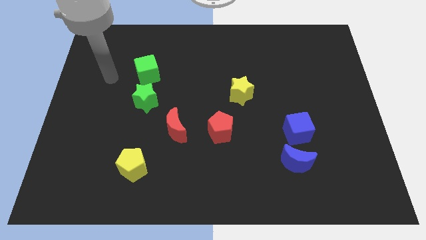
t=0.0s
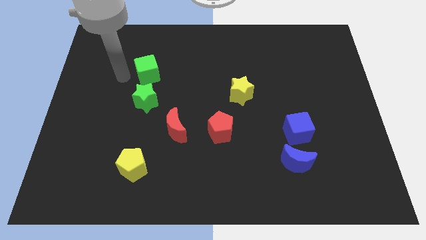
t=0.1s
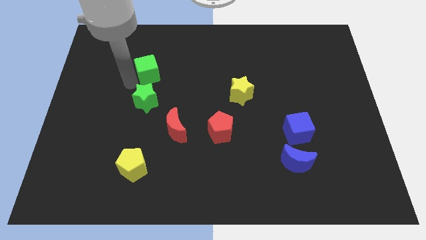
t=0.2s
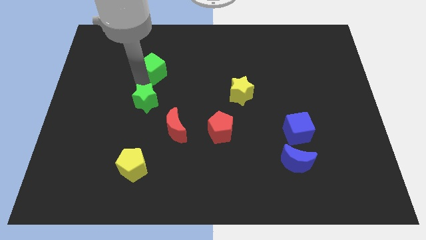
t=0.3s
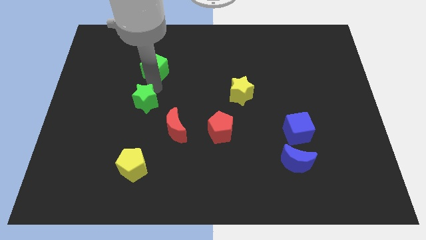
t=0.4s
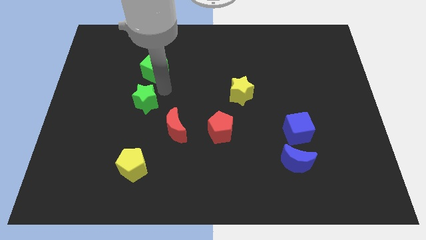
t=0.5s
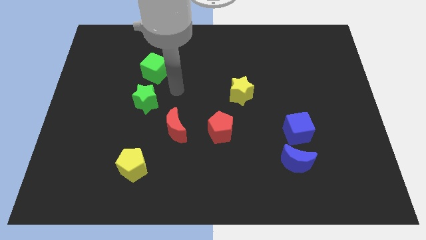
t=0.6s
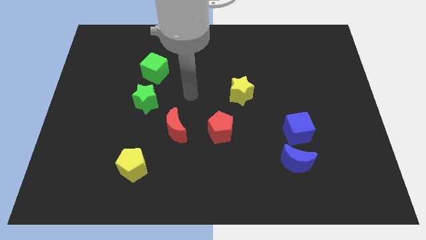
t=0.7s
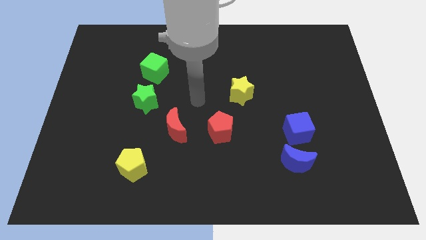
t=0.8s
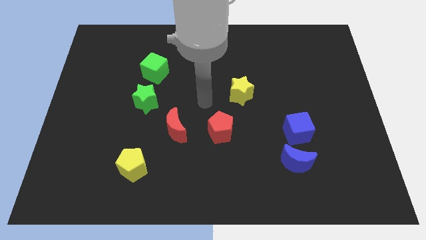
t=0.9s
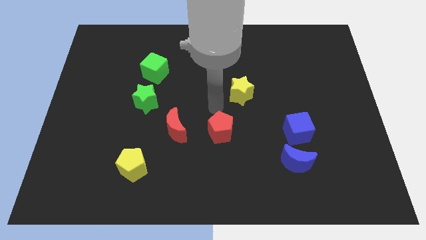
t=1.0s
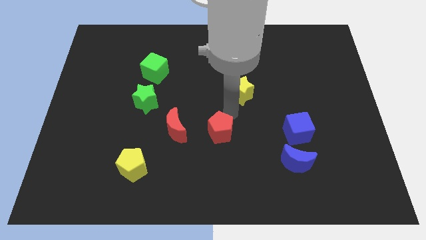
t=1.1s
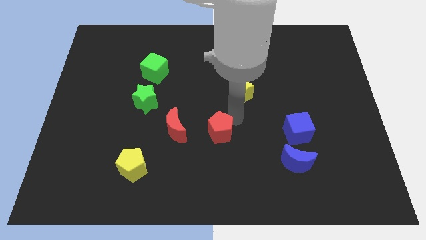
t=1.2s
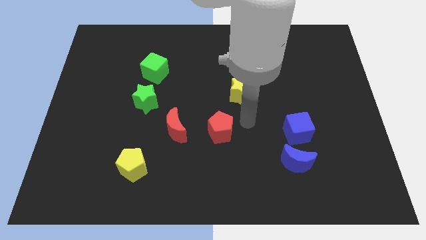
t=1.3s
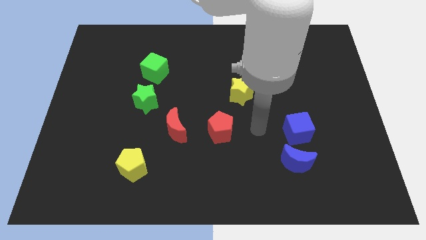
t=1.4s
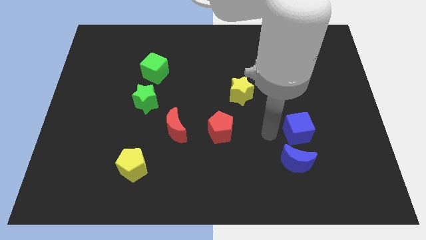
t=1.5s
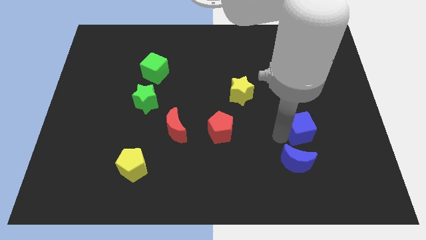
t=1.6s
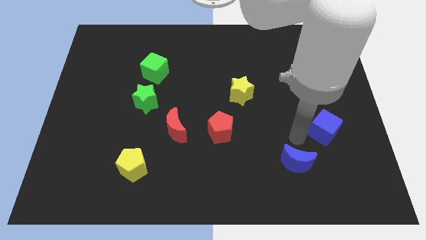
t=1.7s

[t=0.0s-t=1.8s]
move the blue moon away from the blue cube

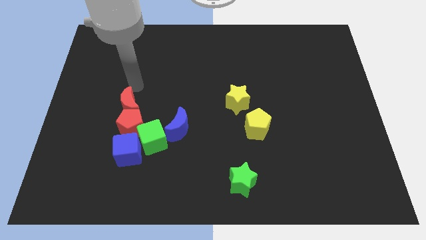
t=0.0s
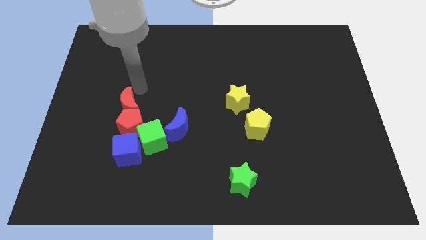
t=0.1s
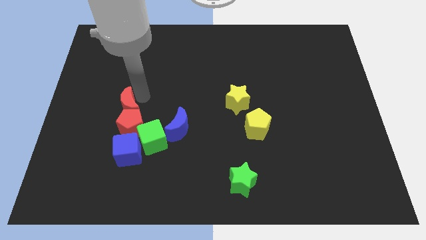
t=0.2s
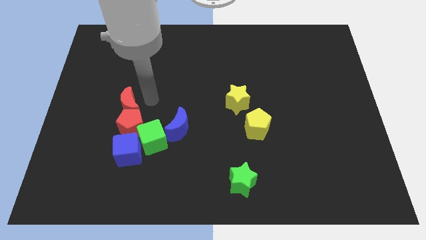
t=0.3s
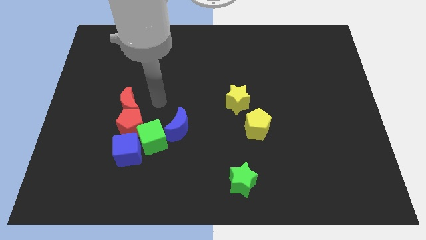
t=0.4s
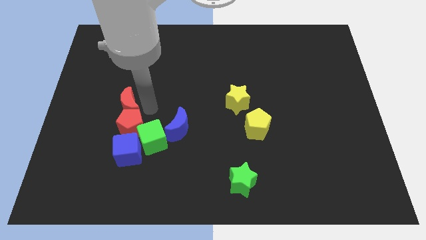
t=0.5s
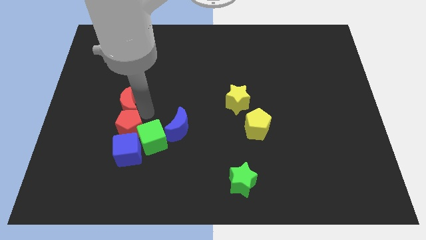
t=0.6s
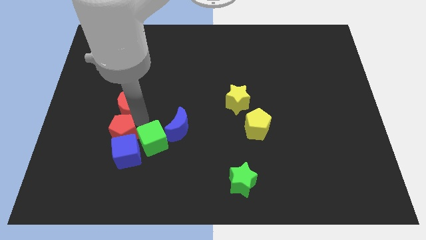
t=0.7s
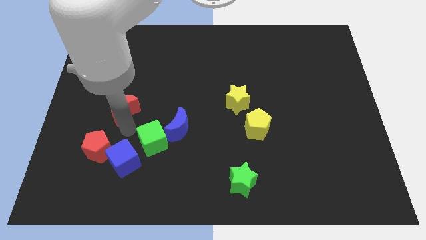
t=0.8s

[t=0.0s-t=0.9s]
move the red moon away from the red pentagon

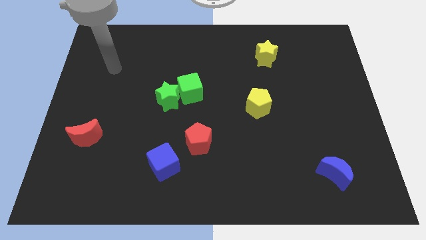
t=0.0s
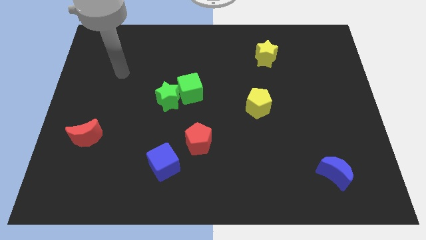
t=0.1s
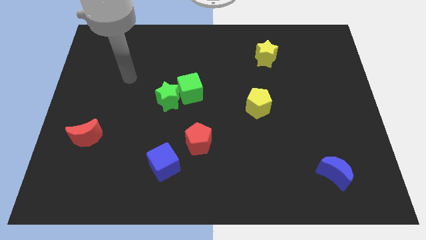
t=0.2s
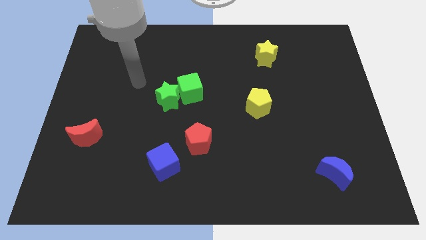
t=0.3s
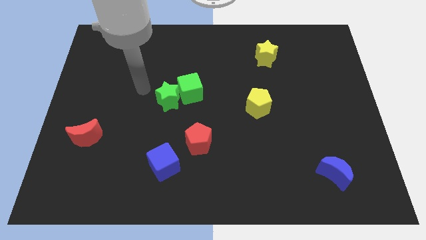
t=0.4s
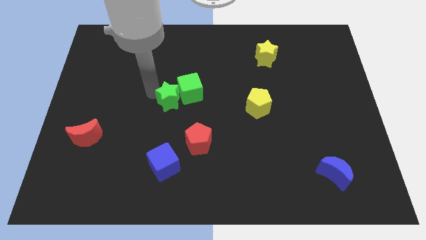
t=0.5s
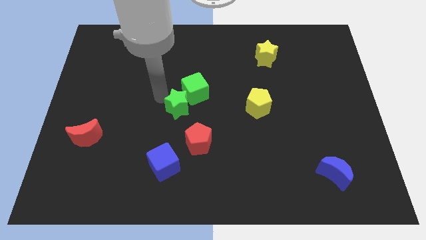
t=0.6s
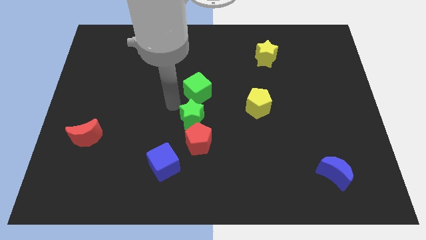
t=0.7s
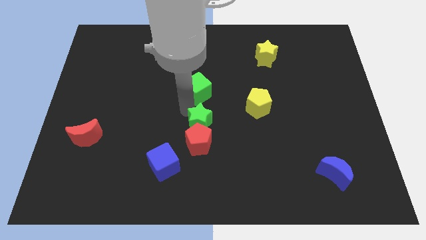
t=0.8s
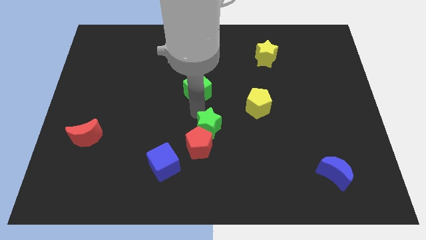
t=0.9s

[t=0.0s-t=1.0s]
separate the green cube from the green star

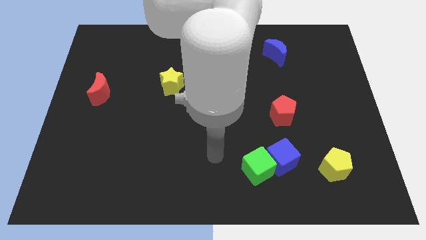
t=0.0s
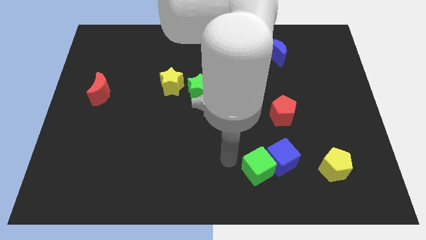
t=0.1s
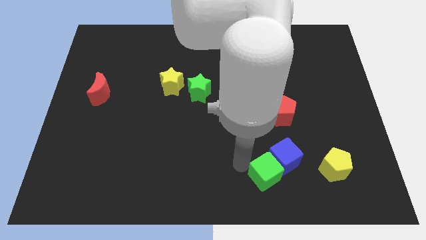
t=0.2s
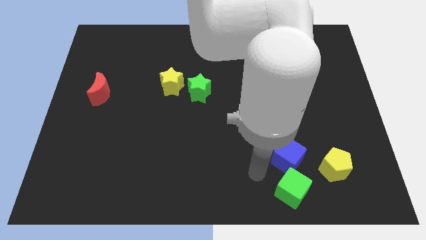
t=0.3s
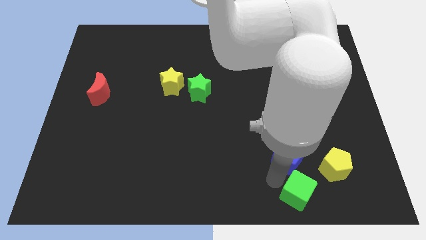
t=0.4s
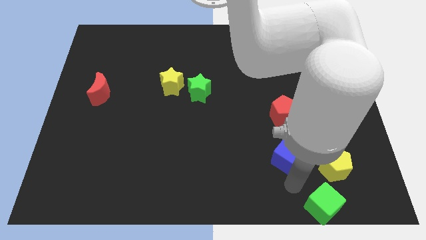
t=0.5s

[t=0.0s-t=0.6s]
separate the blue cube from the green cube

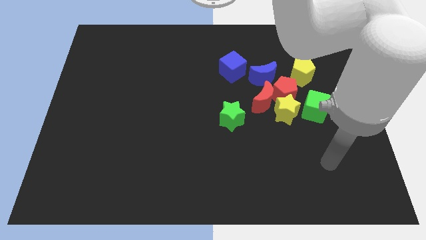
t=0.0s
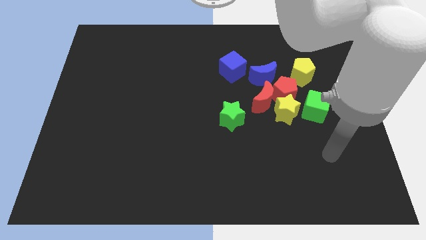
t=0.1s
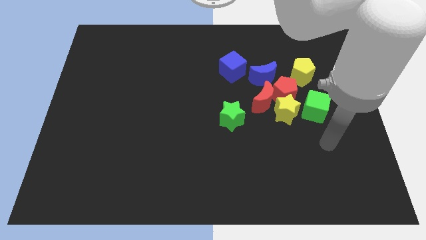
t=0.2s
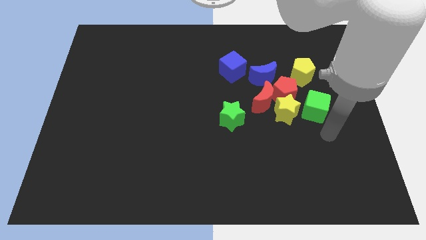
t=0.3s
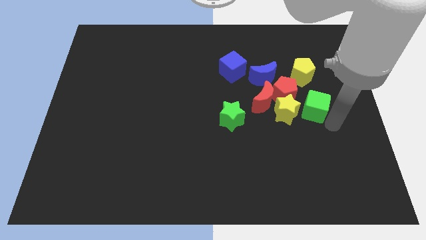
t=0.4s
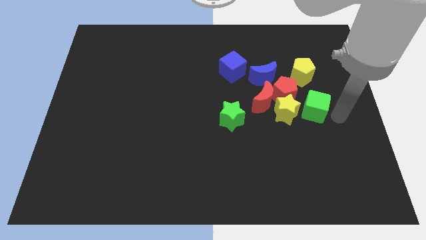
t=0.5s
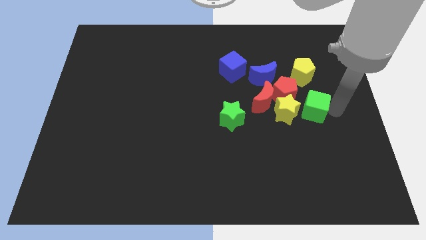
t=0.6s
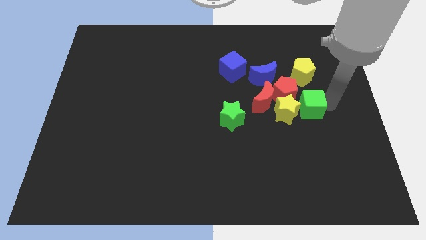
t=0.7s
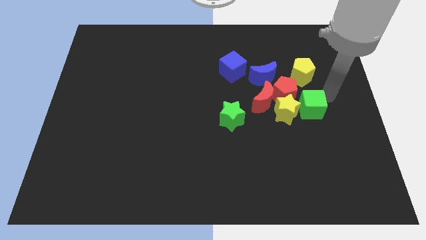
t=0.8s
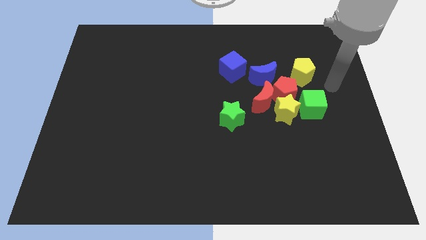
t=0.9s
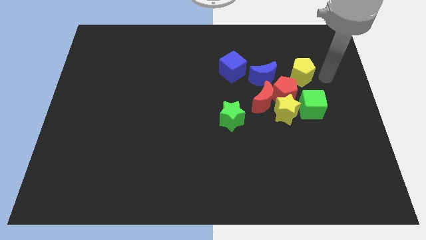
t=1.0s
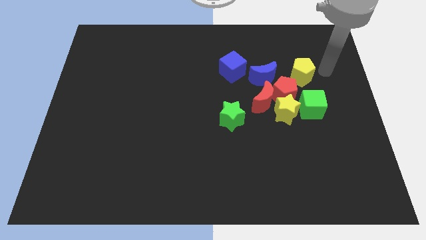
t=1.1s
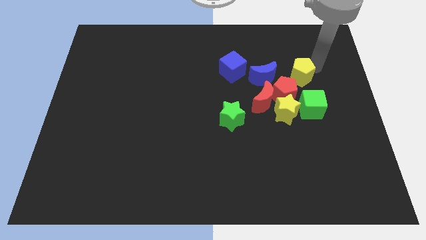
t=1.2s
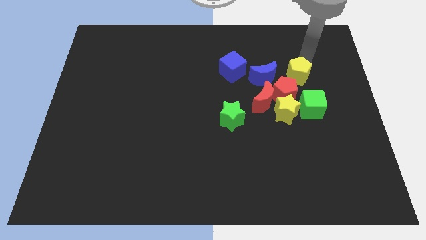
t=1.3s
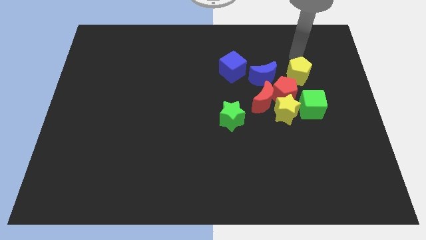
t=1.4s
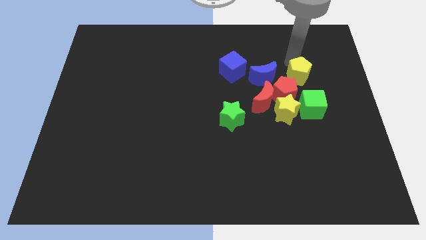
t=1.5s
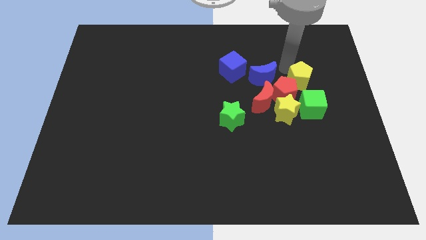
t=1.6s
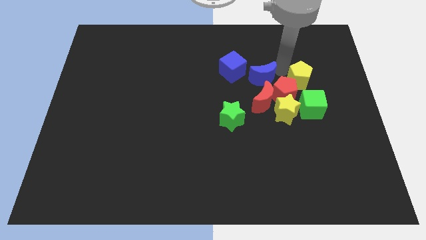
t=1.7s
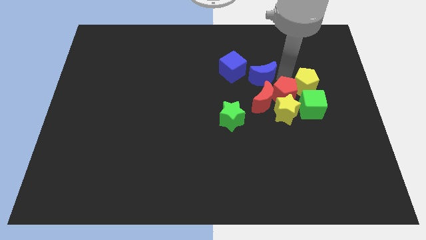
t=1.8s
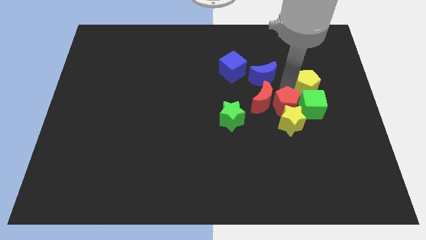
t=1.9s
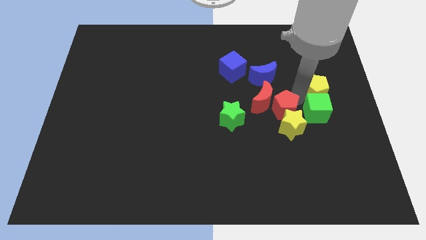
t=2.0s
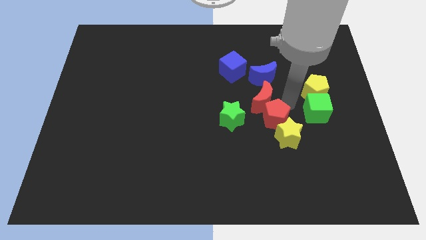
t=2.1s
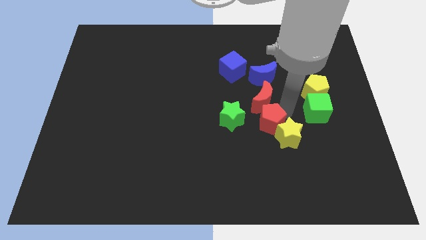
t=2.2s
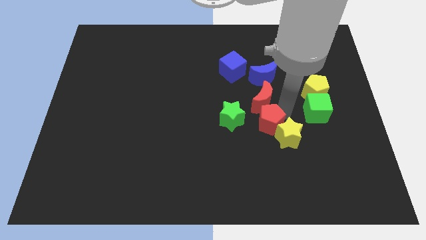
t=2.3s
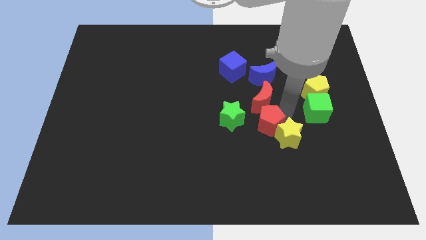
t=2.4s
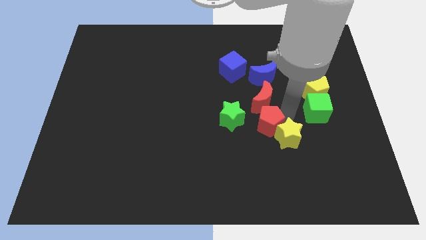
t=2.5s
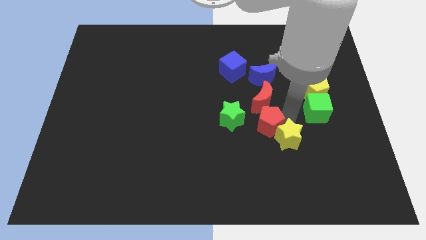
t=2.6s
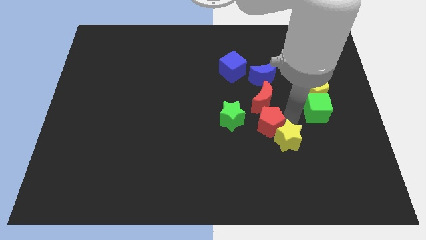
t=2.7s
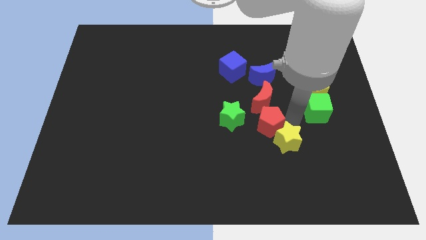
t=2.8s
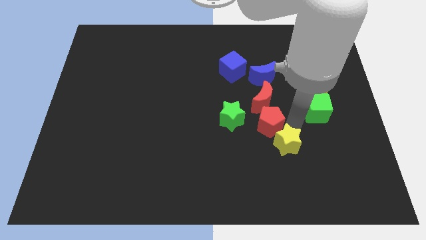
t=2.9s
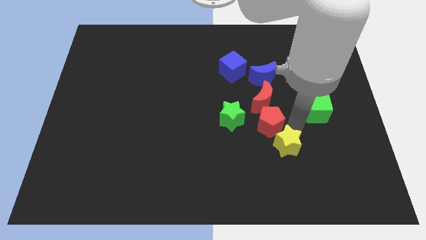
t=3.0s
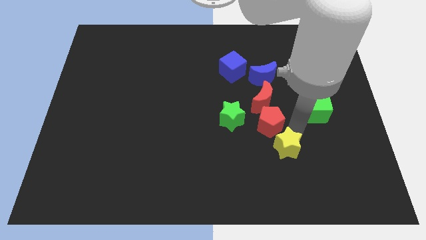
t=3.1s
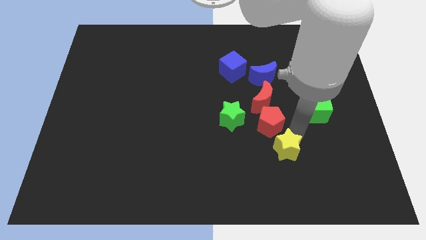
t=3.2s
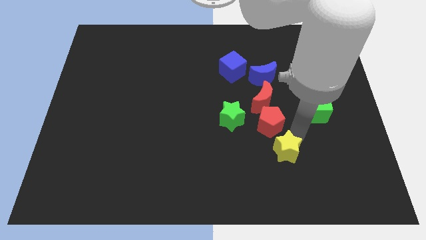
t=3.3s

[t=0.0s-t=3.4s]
move the yellow star away from the red pentagon, red moon, and green cube

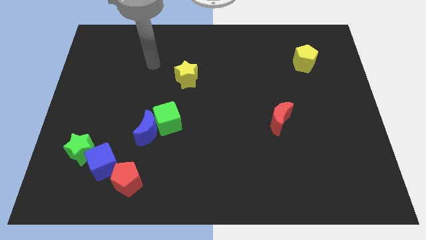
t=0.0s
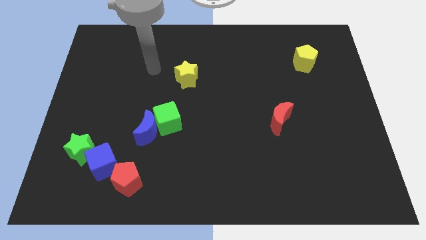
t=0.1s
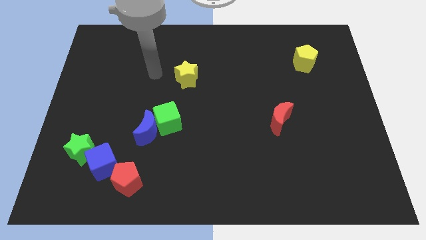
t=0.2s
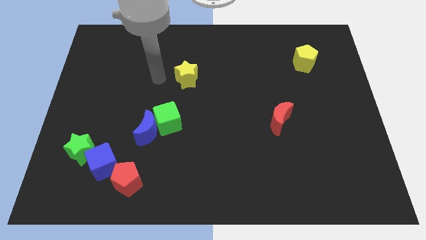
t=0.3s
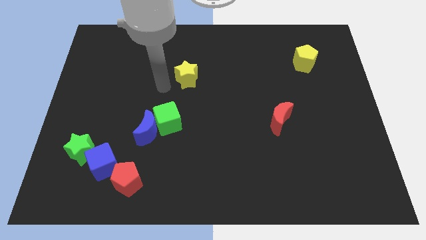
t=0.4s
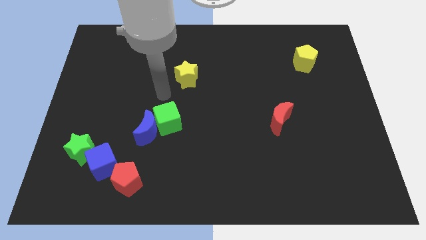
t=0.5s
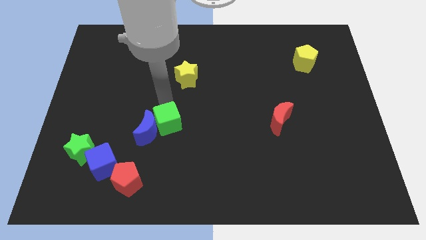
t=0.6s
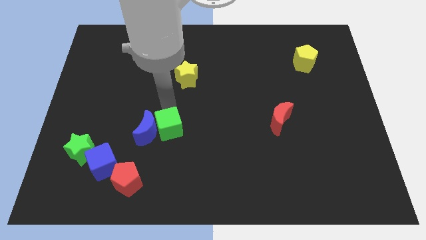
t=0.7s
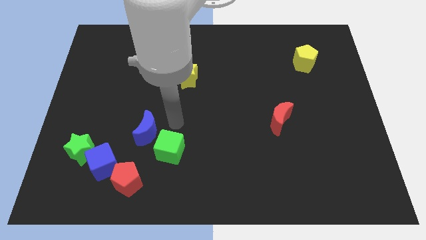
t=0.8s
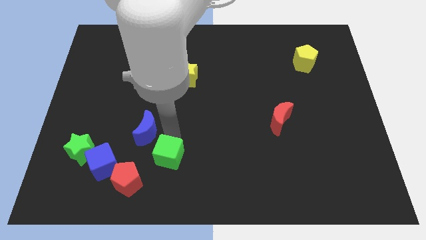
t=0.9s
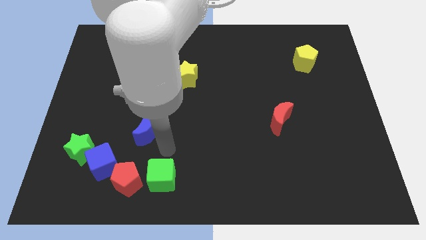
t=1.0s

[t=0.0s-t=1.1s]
move the blue moon away from the green cube

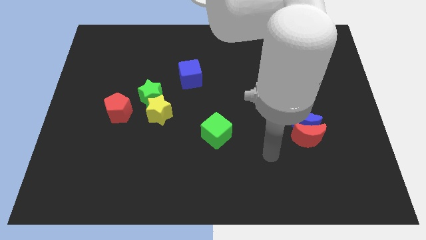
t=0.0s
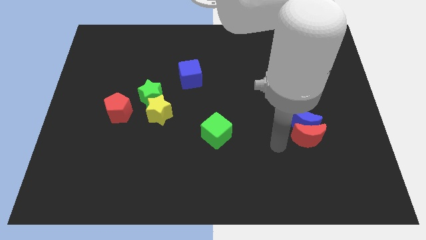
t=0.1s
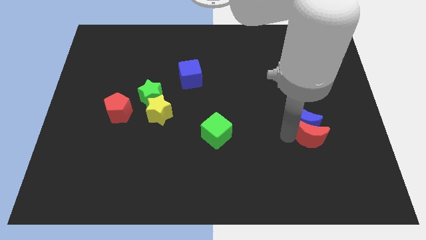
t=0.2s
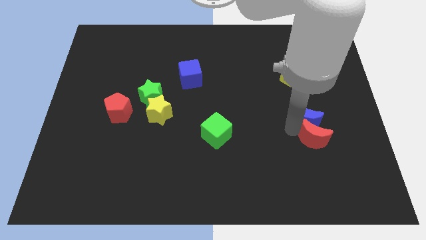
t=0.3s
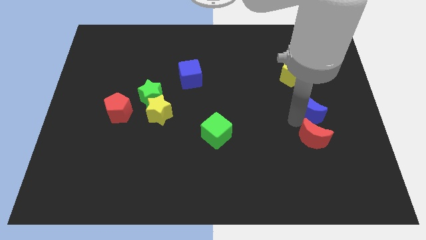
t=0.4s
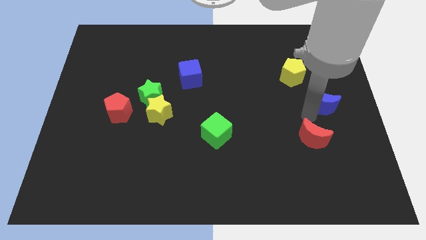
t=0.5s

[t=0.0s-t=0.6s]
separate the red moon from the blue moon
